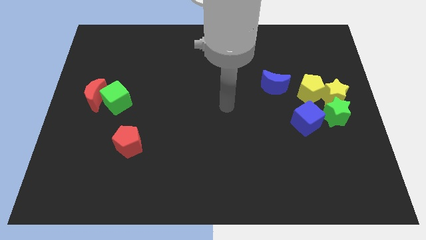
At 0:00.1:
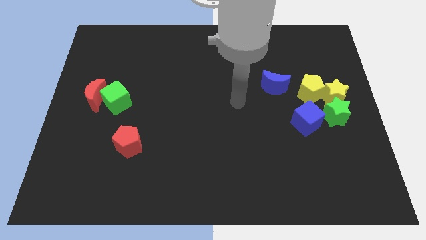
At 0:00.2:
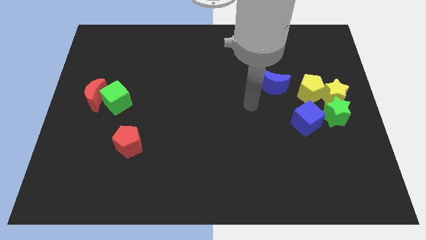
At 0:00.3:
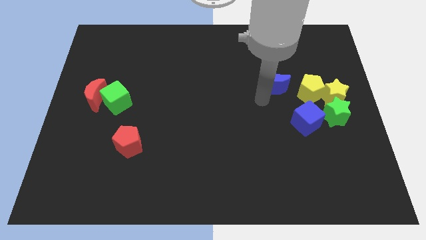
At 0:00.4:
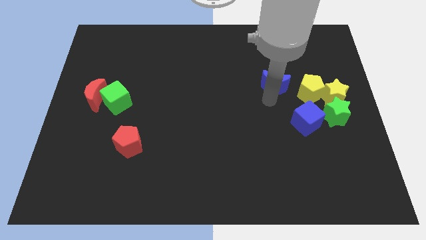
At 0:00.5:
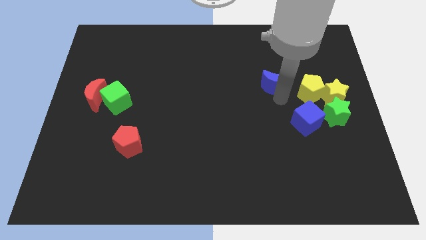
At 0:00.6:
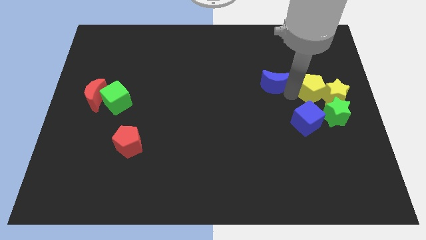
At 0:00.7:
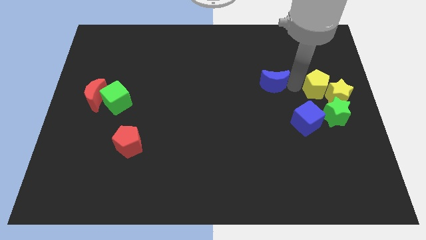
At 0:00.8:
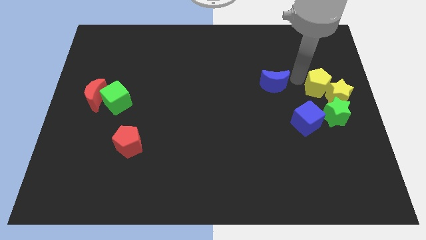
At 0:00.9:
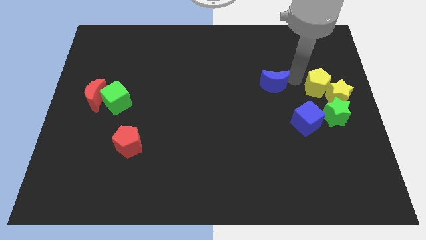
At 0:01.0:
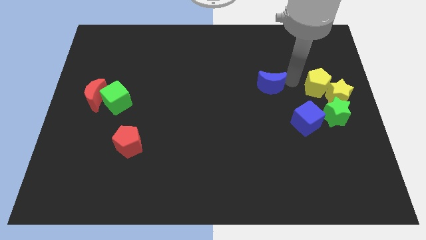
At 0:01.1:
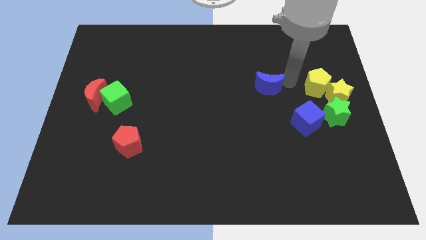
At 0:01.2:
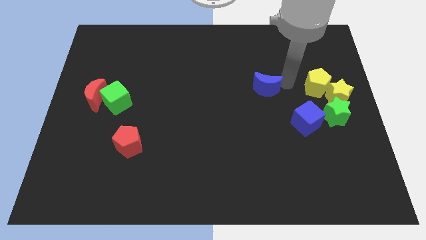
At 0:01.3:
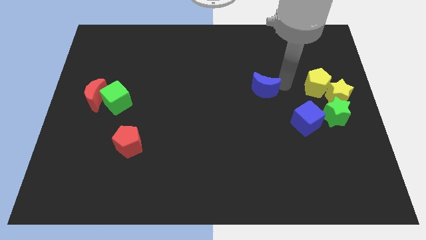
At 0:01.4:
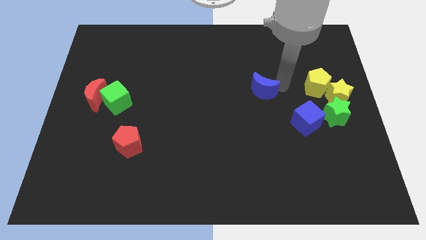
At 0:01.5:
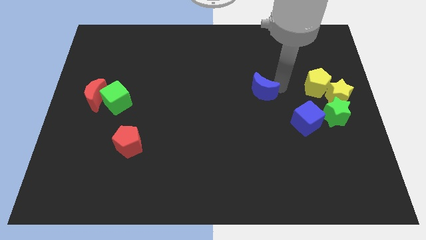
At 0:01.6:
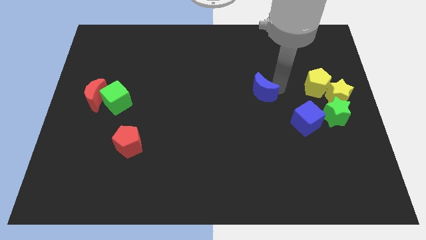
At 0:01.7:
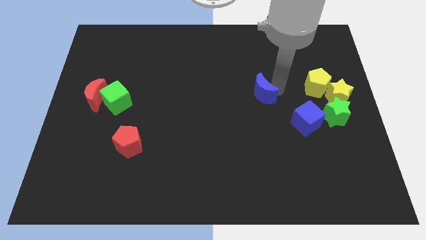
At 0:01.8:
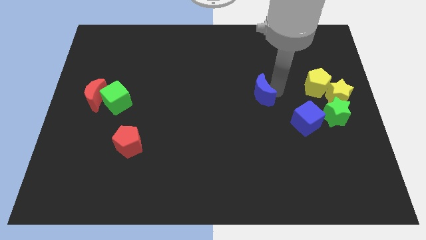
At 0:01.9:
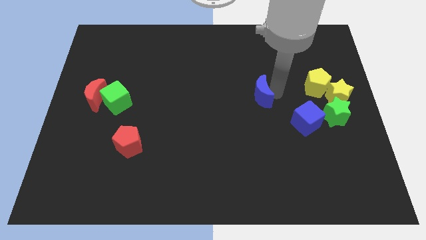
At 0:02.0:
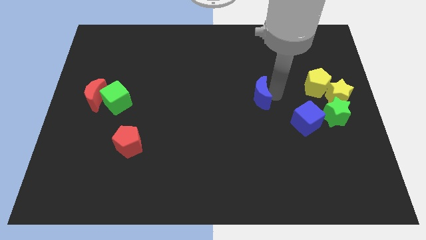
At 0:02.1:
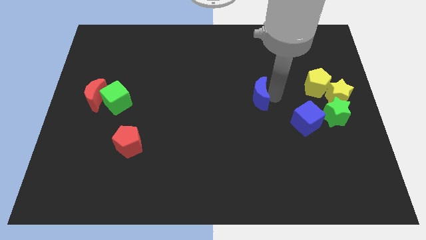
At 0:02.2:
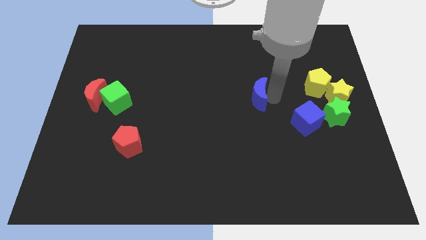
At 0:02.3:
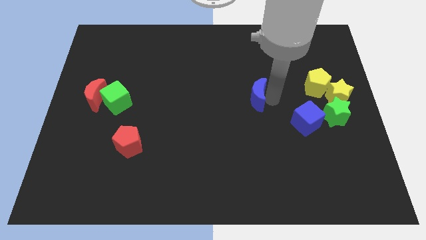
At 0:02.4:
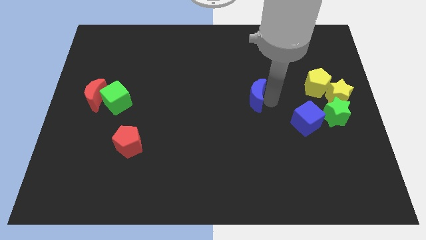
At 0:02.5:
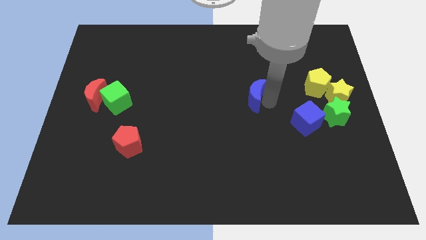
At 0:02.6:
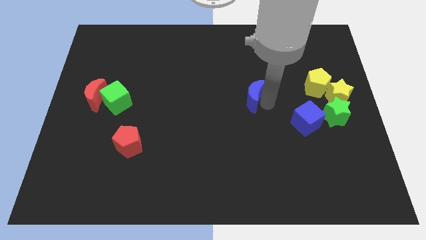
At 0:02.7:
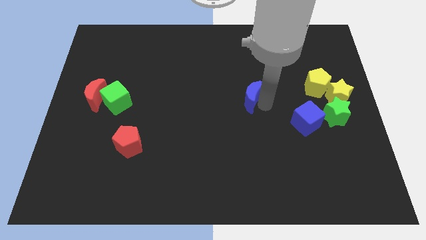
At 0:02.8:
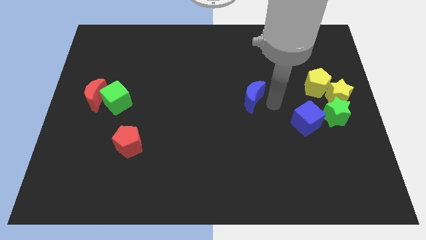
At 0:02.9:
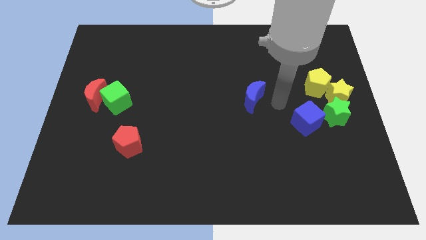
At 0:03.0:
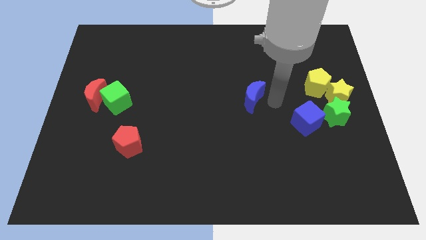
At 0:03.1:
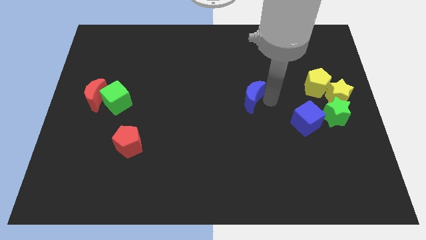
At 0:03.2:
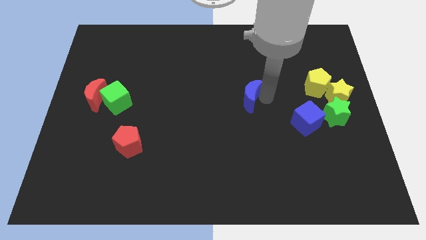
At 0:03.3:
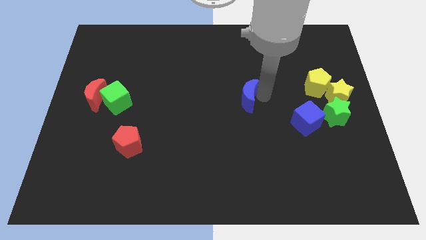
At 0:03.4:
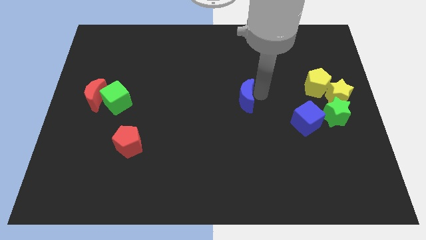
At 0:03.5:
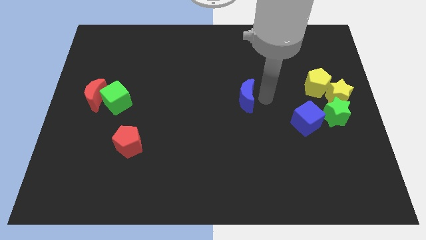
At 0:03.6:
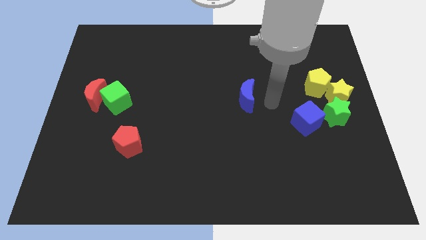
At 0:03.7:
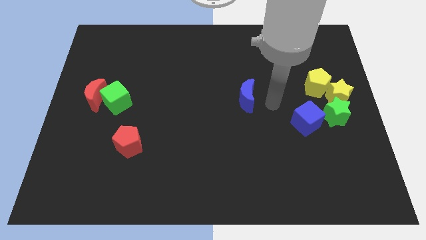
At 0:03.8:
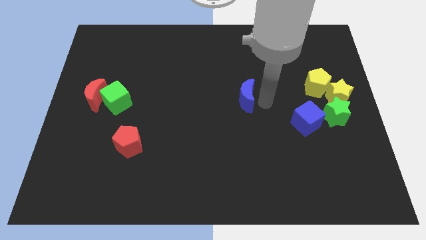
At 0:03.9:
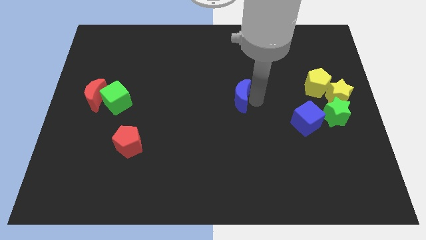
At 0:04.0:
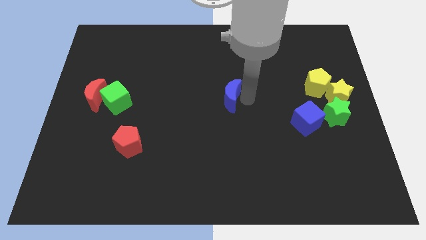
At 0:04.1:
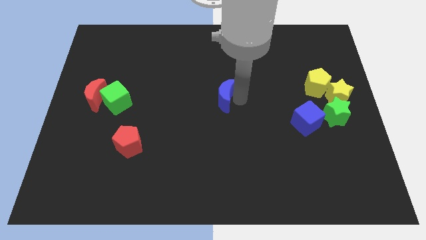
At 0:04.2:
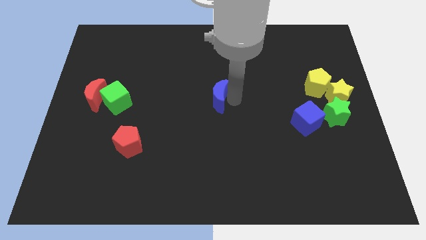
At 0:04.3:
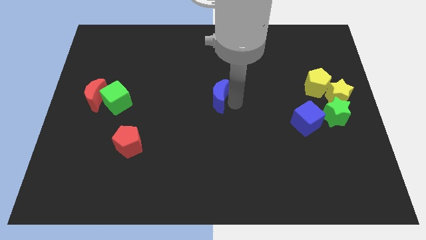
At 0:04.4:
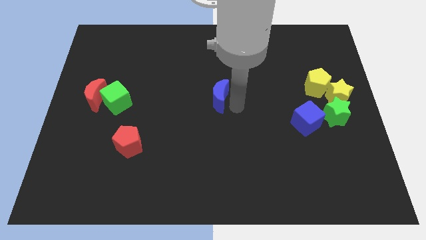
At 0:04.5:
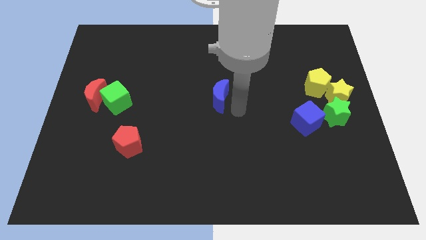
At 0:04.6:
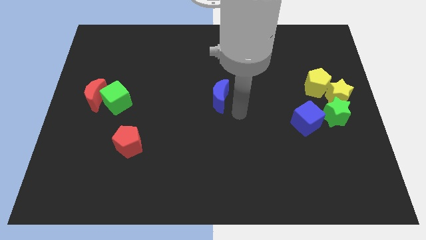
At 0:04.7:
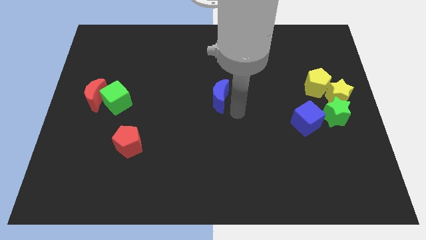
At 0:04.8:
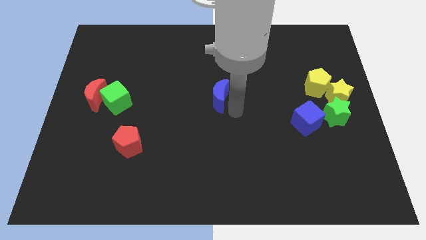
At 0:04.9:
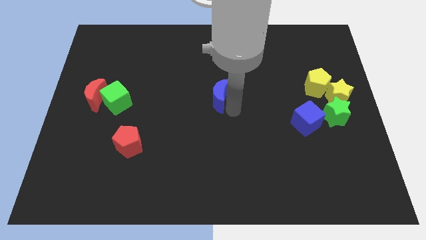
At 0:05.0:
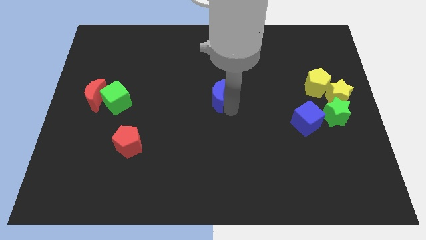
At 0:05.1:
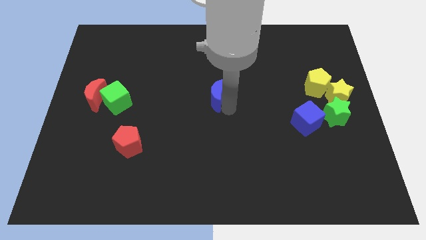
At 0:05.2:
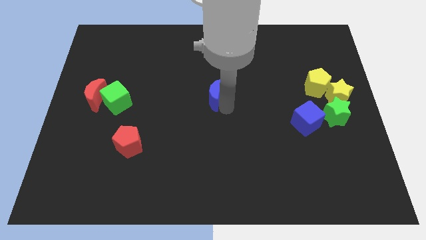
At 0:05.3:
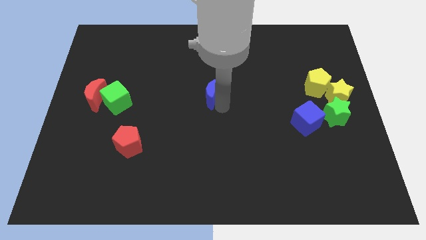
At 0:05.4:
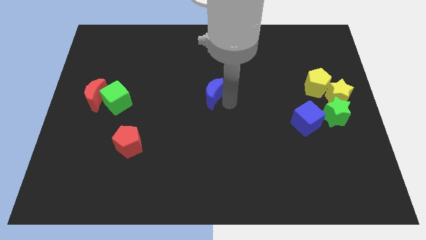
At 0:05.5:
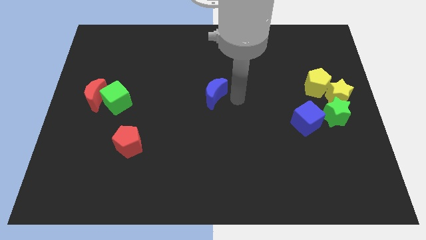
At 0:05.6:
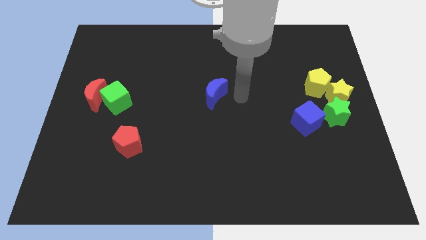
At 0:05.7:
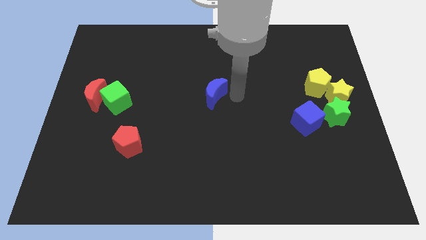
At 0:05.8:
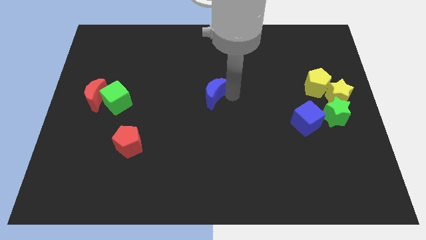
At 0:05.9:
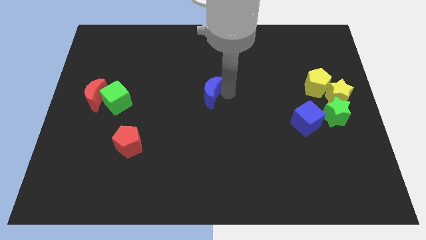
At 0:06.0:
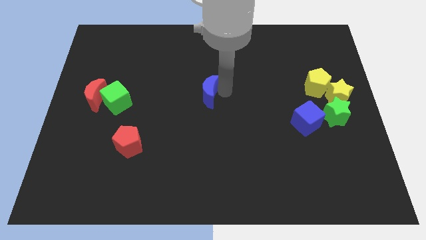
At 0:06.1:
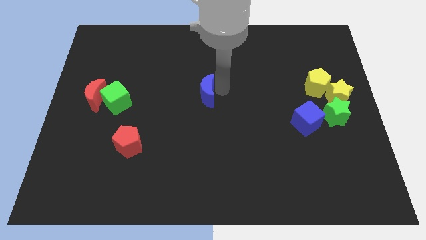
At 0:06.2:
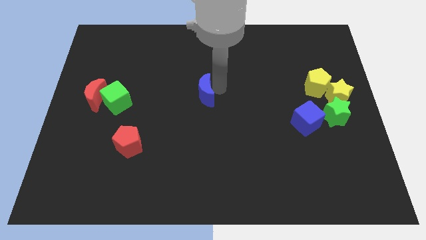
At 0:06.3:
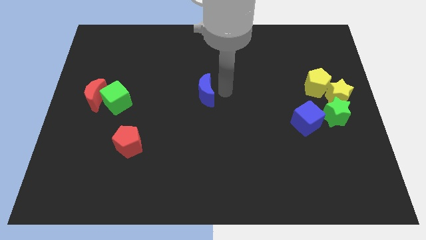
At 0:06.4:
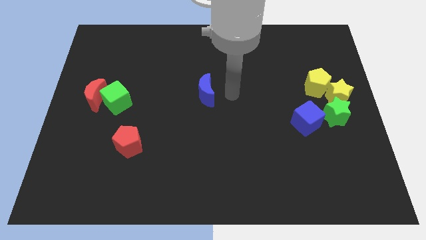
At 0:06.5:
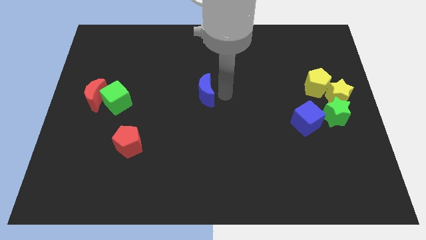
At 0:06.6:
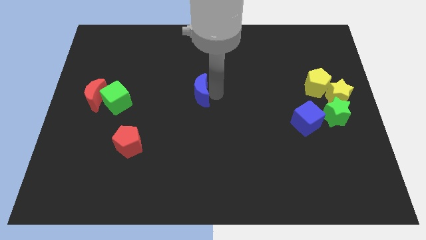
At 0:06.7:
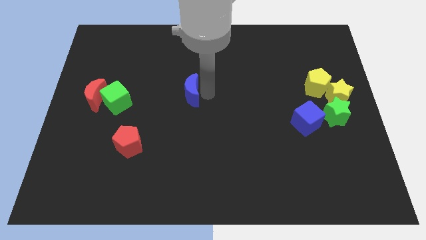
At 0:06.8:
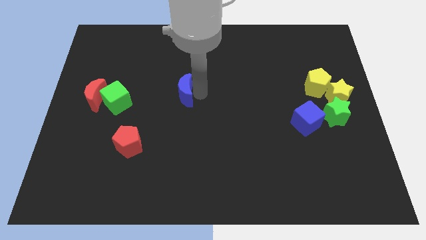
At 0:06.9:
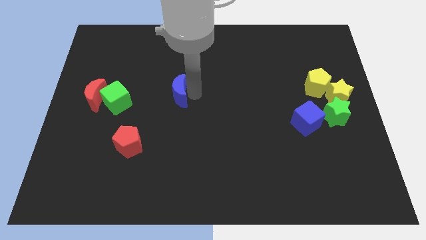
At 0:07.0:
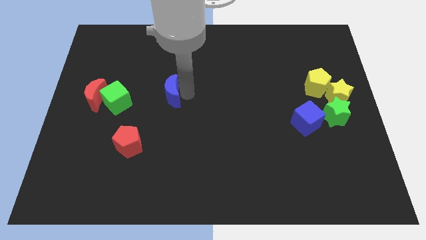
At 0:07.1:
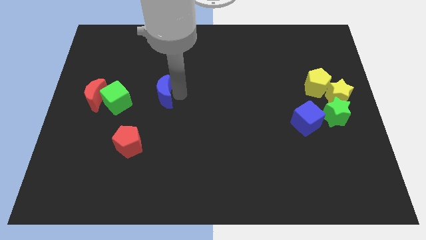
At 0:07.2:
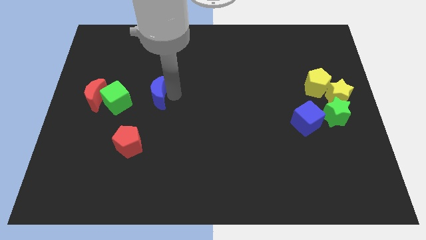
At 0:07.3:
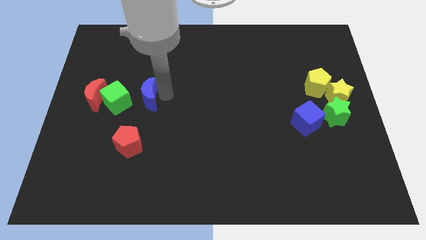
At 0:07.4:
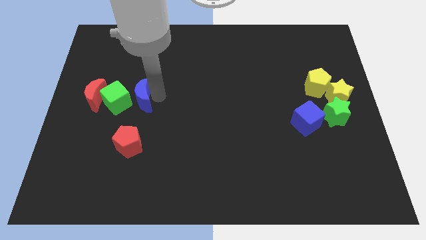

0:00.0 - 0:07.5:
slide the blue moon close to the green cube
